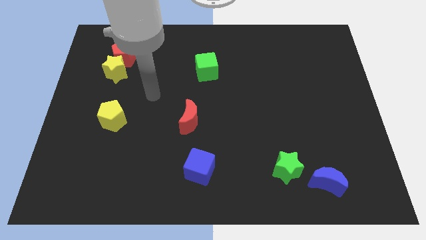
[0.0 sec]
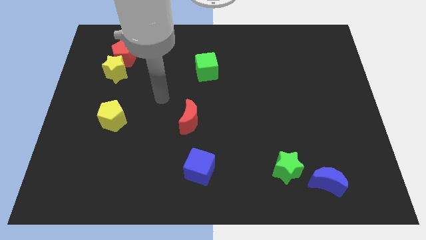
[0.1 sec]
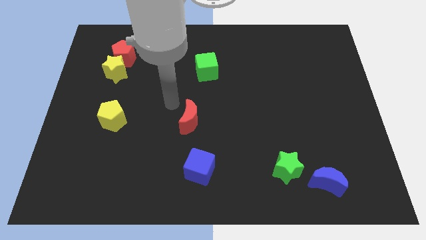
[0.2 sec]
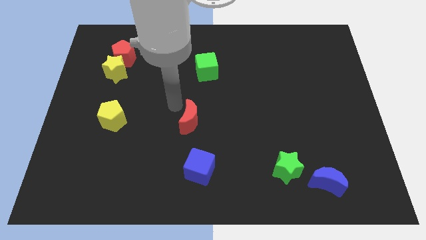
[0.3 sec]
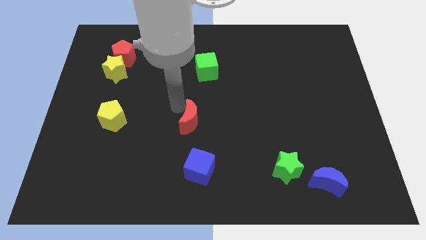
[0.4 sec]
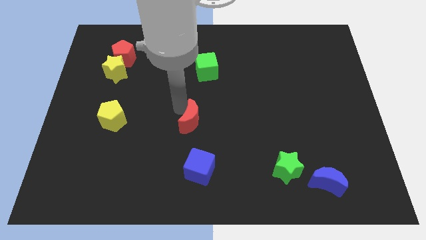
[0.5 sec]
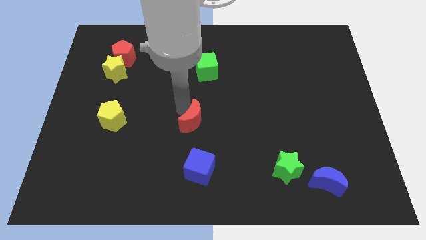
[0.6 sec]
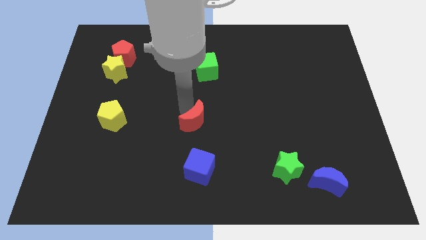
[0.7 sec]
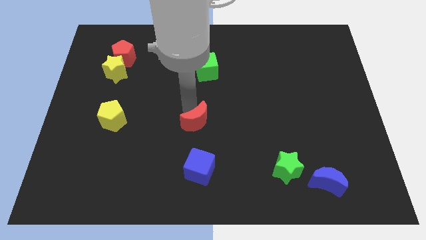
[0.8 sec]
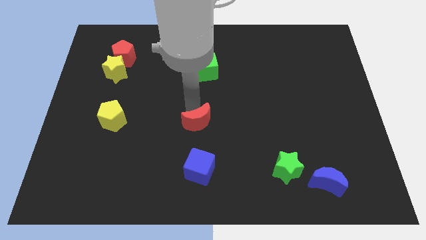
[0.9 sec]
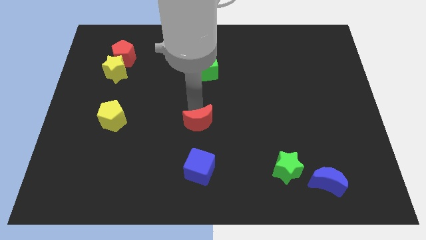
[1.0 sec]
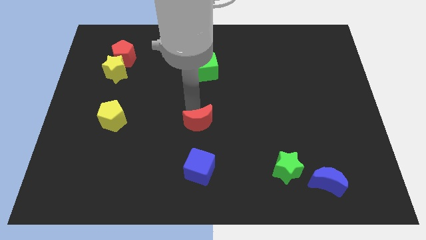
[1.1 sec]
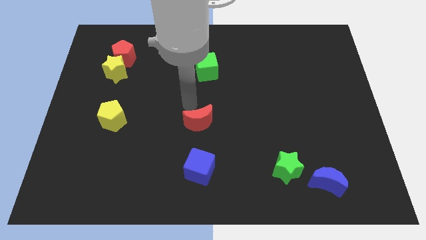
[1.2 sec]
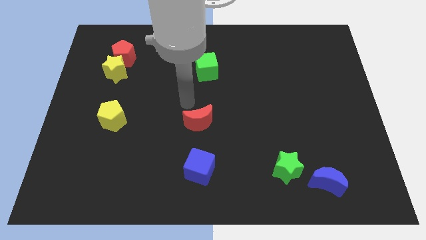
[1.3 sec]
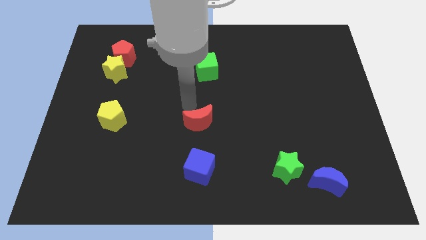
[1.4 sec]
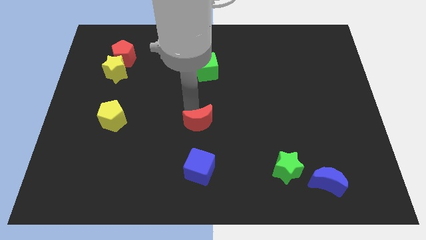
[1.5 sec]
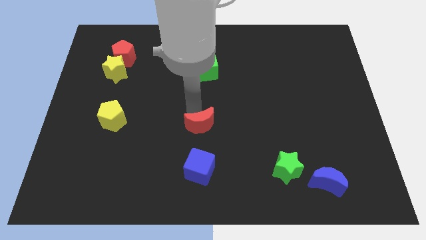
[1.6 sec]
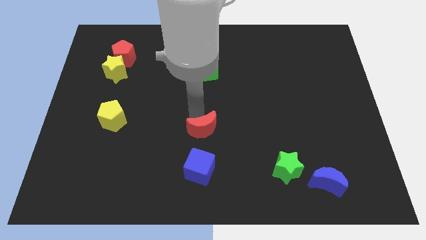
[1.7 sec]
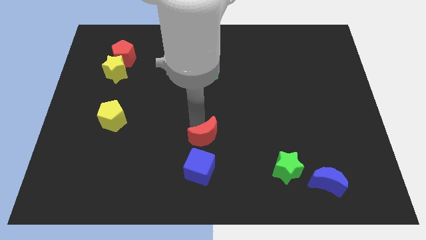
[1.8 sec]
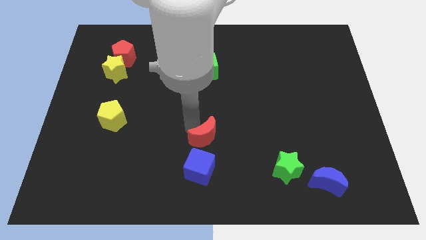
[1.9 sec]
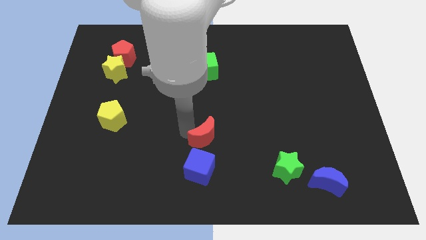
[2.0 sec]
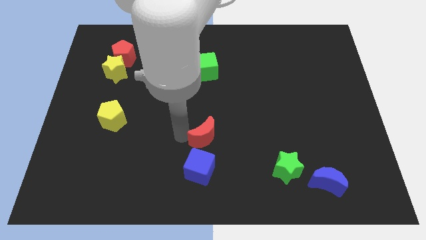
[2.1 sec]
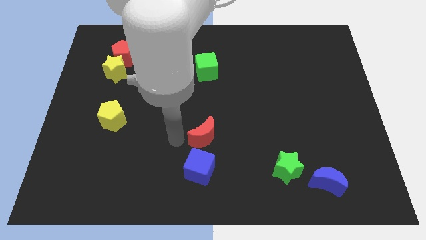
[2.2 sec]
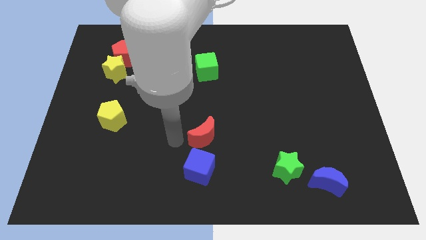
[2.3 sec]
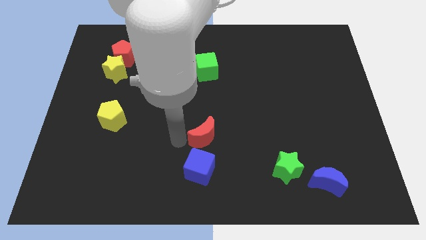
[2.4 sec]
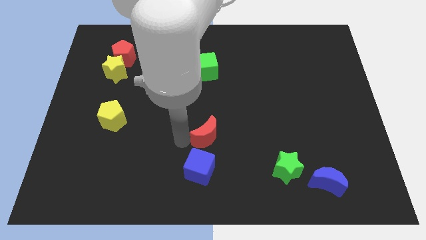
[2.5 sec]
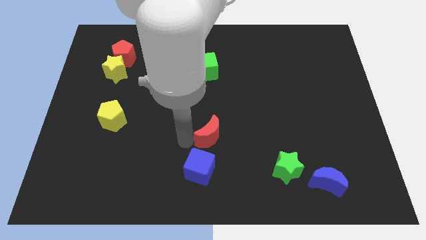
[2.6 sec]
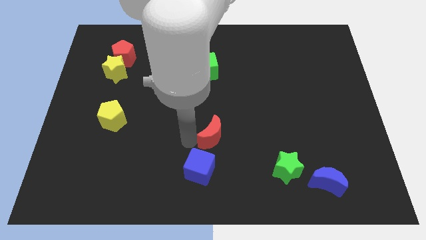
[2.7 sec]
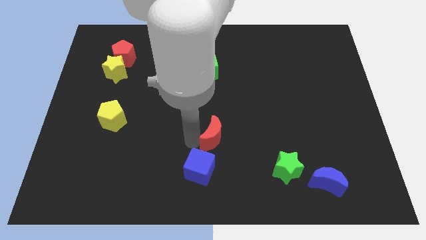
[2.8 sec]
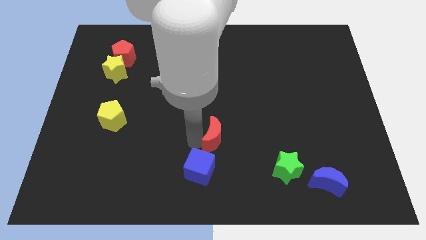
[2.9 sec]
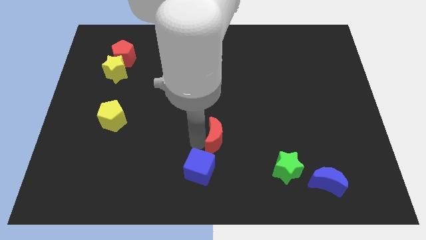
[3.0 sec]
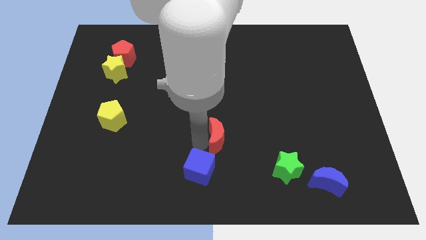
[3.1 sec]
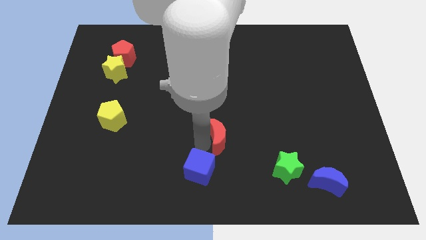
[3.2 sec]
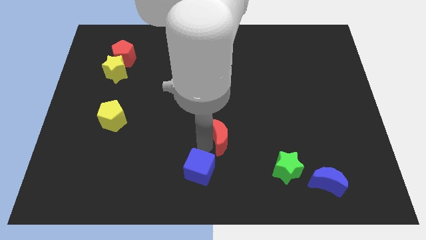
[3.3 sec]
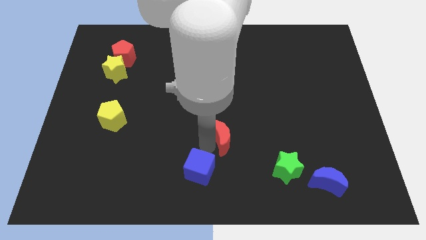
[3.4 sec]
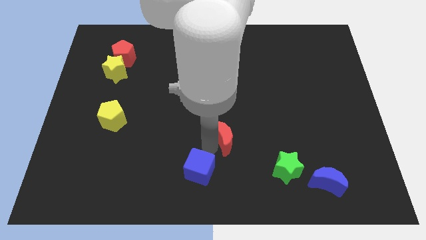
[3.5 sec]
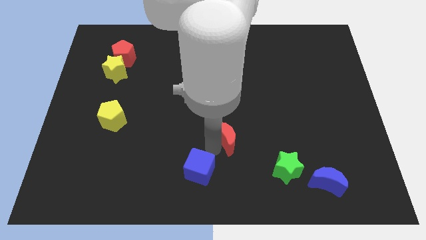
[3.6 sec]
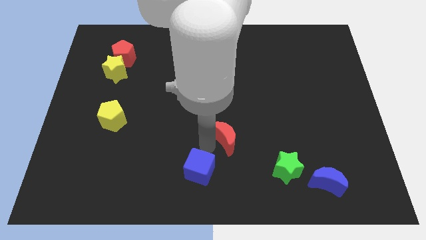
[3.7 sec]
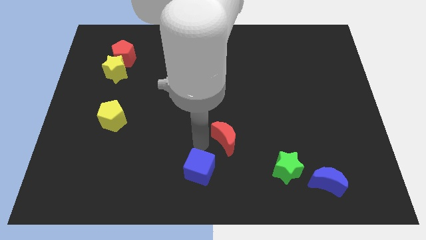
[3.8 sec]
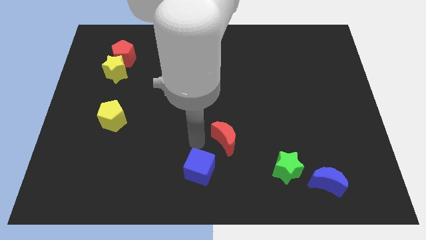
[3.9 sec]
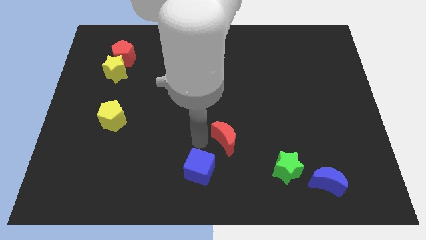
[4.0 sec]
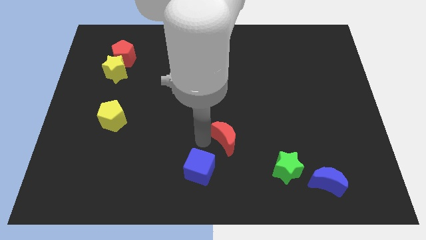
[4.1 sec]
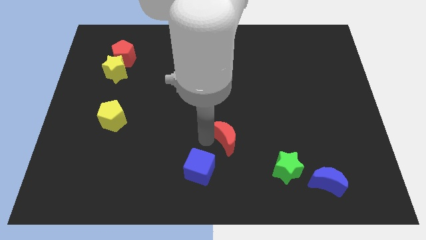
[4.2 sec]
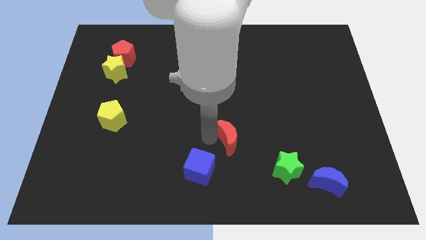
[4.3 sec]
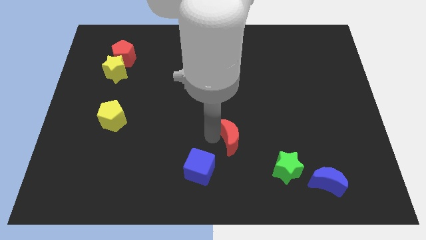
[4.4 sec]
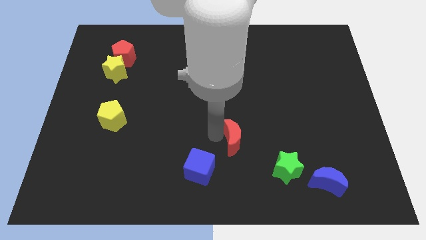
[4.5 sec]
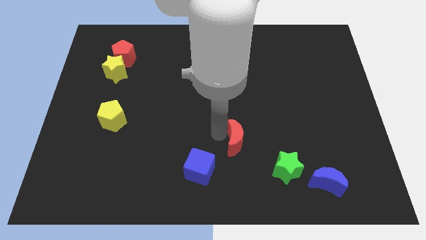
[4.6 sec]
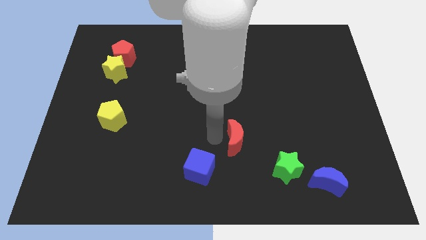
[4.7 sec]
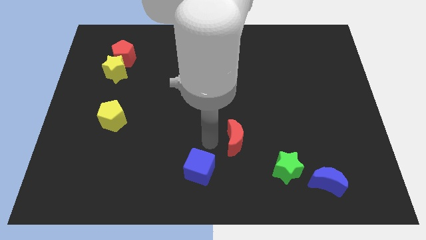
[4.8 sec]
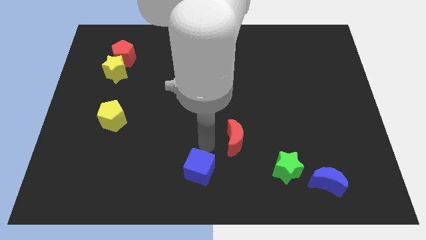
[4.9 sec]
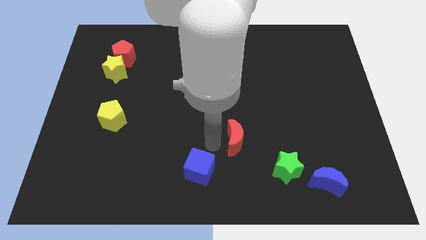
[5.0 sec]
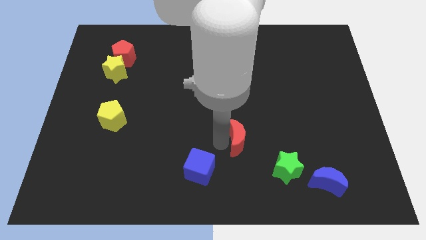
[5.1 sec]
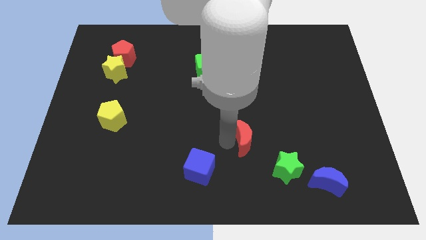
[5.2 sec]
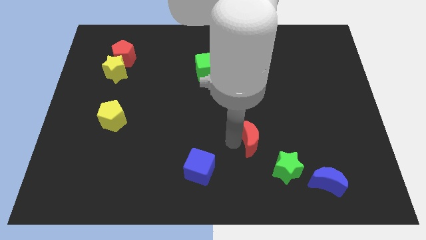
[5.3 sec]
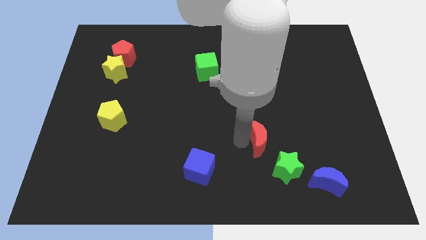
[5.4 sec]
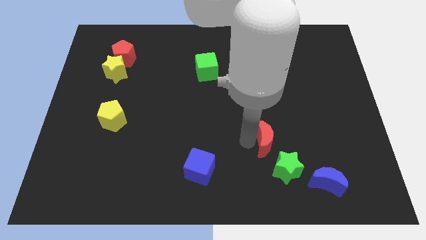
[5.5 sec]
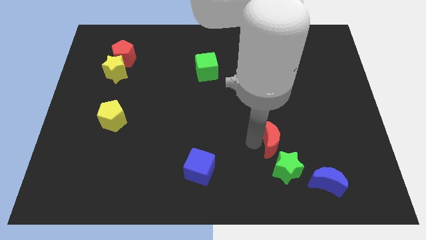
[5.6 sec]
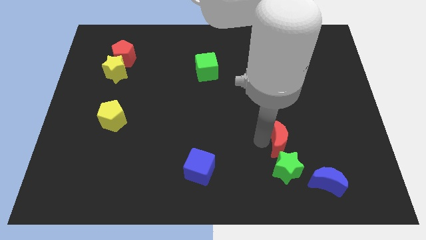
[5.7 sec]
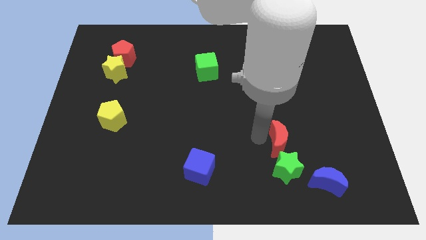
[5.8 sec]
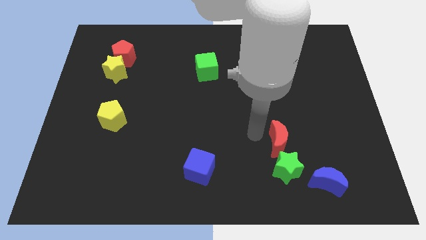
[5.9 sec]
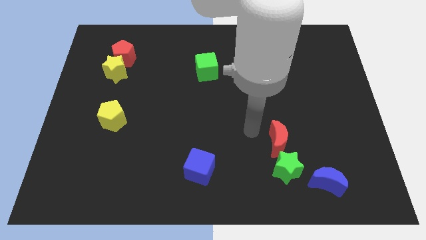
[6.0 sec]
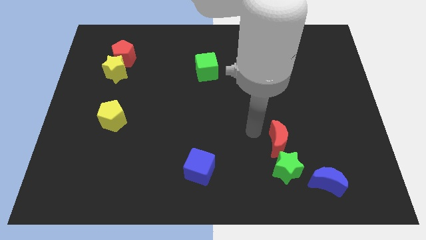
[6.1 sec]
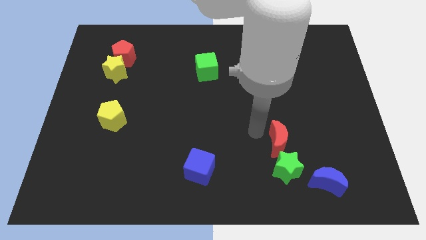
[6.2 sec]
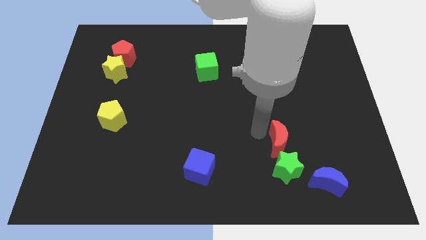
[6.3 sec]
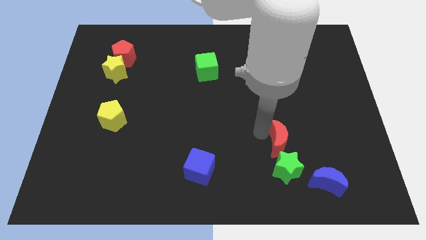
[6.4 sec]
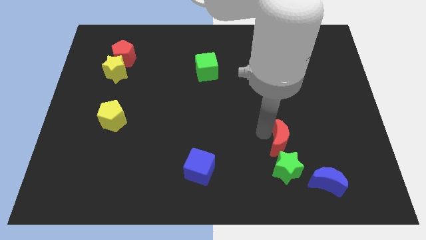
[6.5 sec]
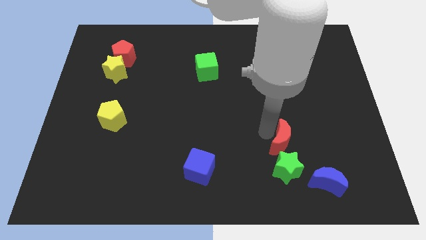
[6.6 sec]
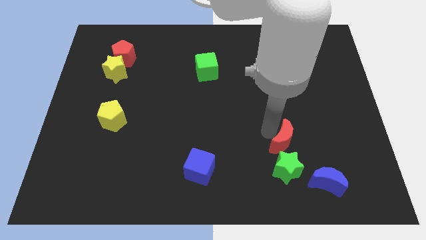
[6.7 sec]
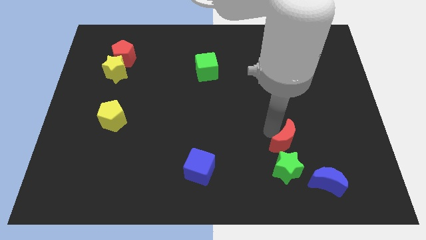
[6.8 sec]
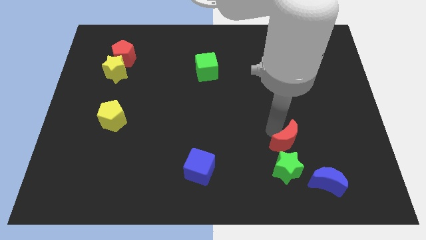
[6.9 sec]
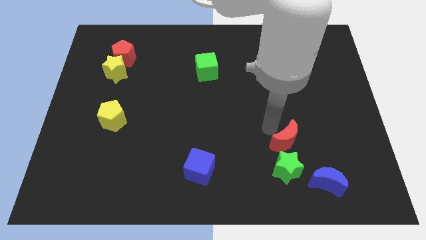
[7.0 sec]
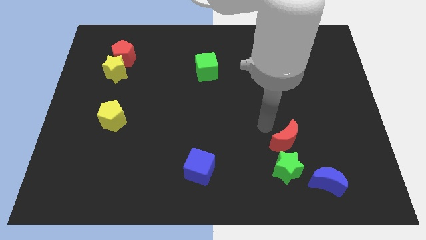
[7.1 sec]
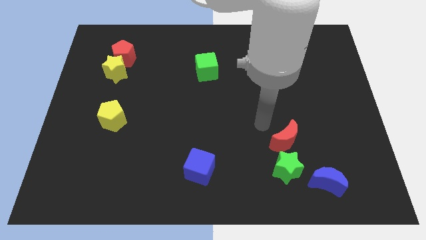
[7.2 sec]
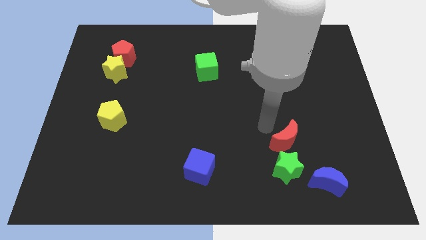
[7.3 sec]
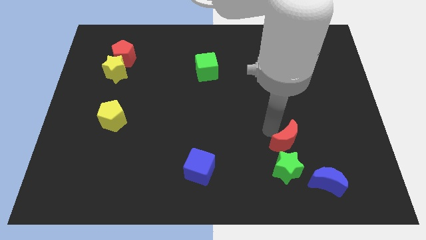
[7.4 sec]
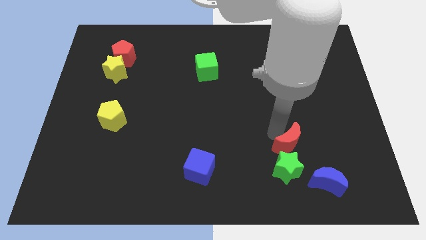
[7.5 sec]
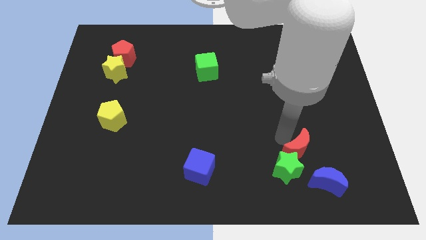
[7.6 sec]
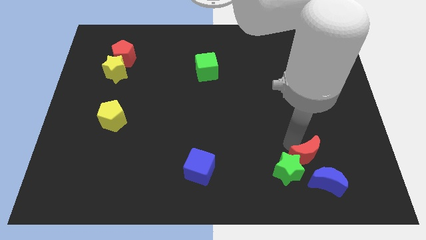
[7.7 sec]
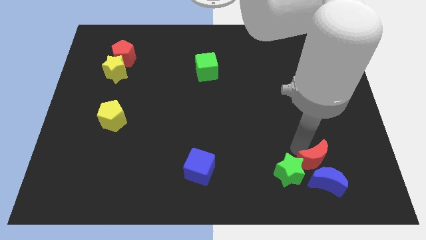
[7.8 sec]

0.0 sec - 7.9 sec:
slide the red moon next to the blue moon

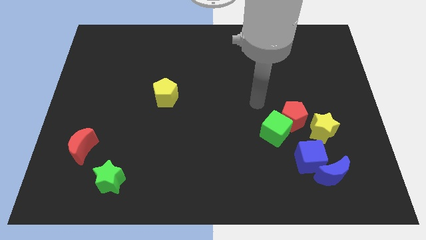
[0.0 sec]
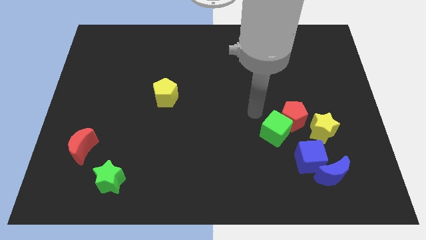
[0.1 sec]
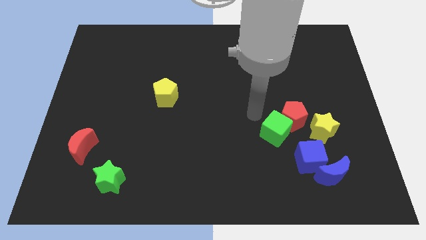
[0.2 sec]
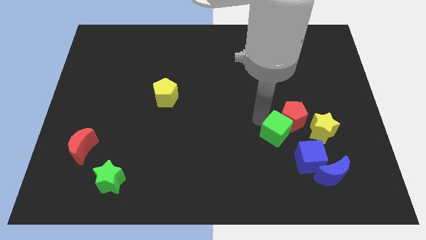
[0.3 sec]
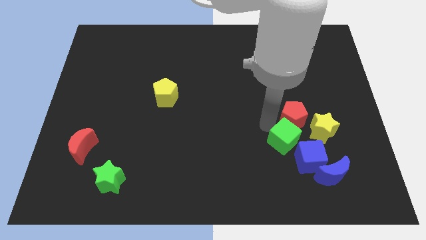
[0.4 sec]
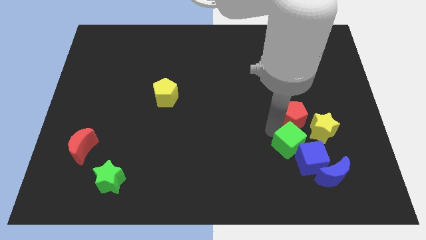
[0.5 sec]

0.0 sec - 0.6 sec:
move the green cube close to the blue cube
